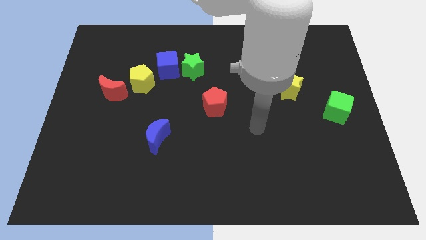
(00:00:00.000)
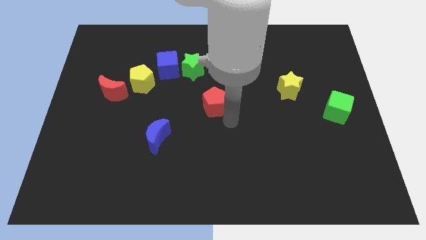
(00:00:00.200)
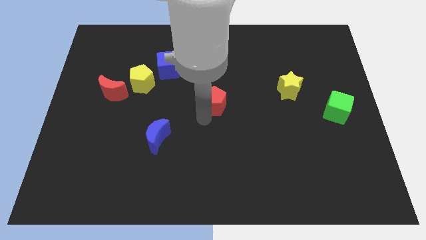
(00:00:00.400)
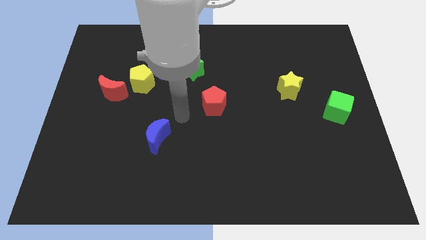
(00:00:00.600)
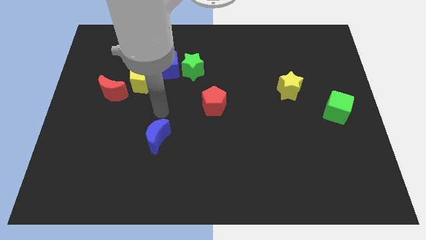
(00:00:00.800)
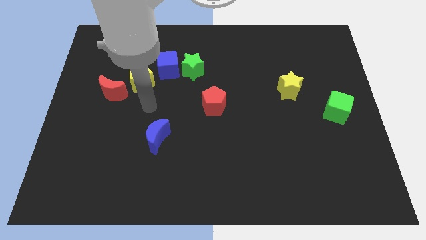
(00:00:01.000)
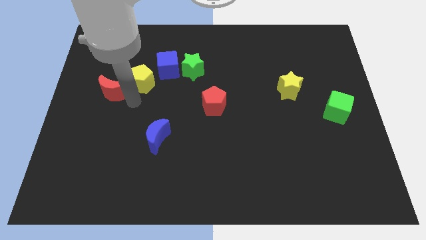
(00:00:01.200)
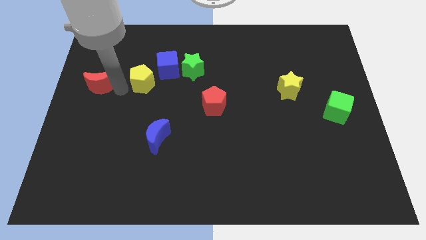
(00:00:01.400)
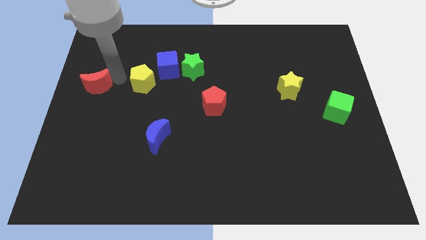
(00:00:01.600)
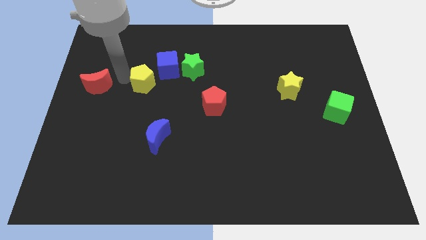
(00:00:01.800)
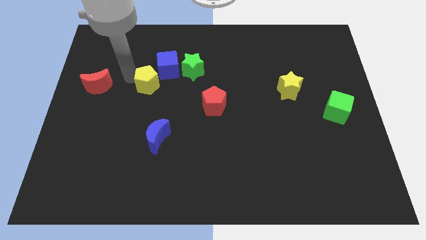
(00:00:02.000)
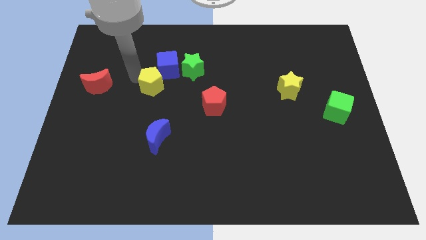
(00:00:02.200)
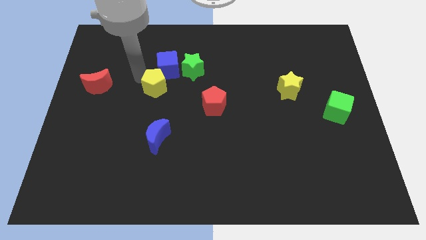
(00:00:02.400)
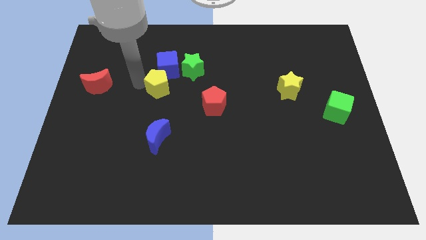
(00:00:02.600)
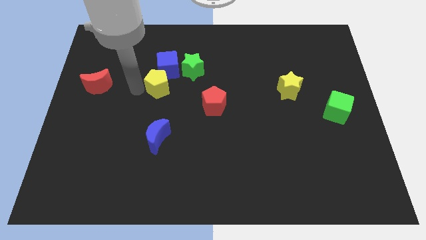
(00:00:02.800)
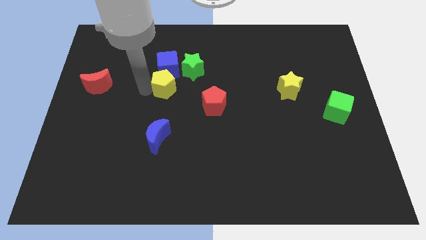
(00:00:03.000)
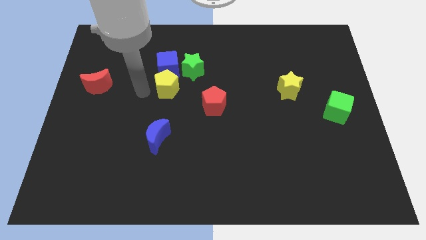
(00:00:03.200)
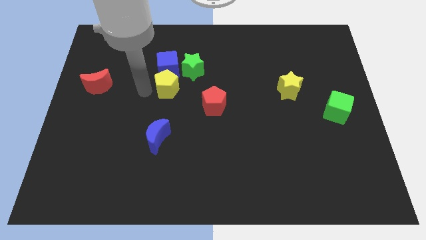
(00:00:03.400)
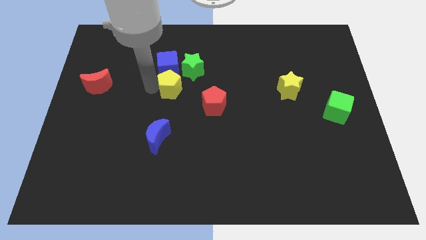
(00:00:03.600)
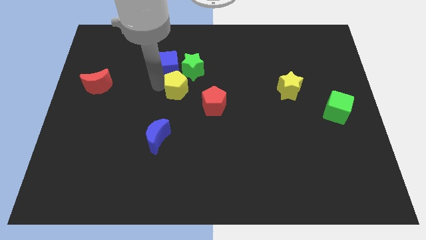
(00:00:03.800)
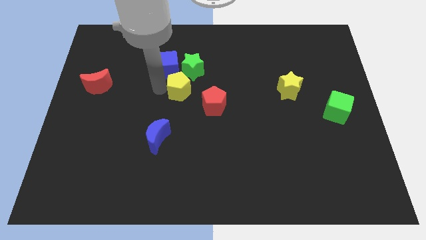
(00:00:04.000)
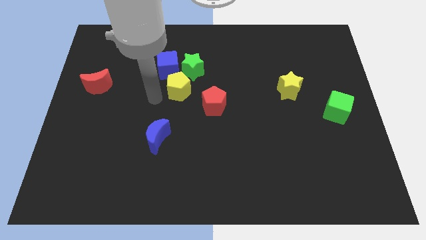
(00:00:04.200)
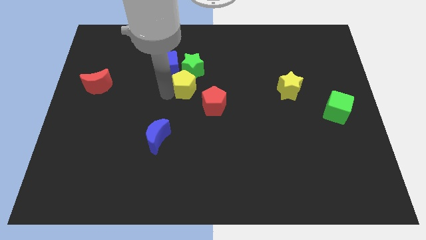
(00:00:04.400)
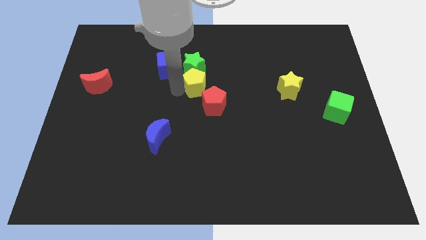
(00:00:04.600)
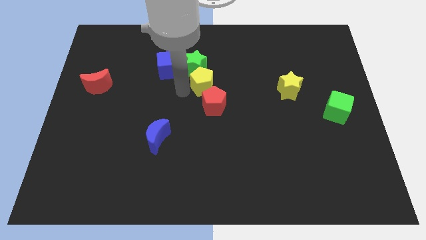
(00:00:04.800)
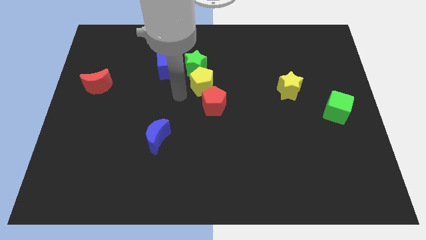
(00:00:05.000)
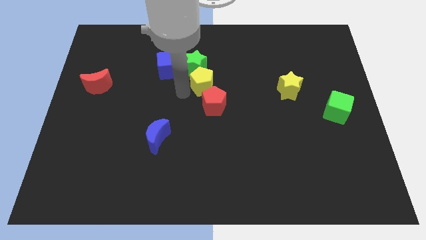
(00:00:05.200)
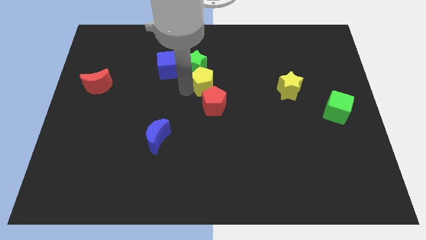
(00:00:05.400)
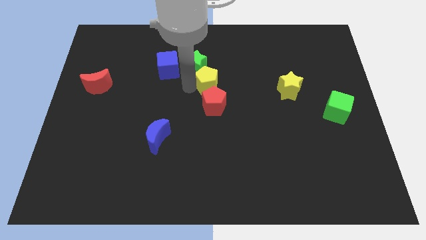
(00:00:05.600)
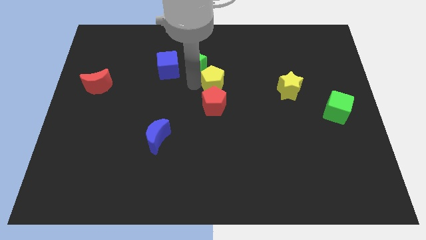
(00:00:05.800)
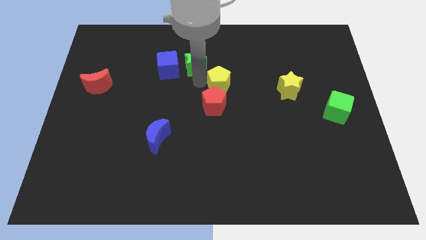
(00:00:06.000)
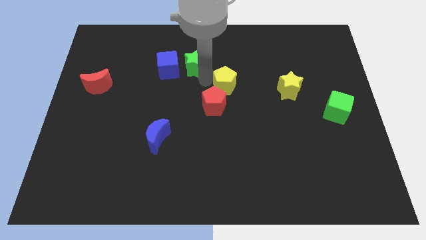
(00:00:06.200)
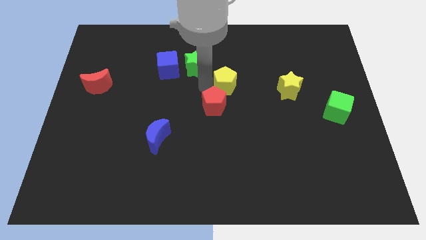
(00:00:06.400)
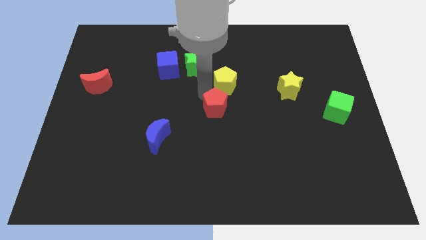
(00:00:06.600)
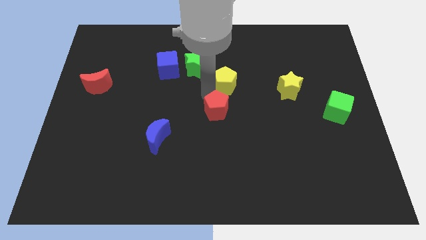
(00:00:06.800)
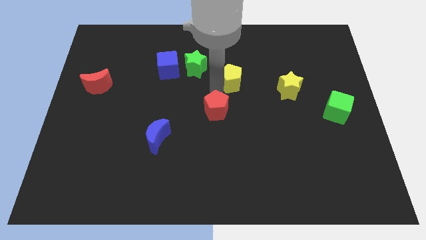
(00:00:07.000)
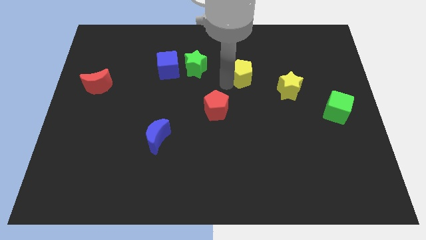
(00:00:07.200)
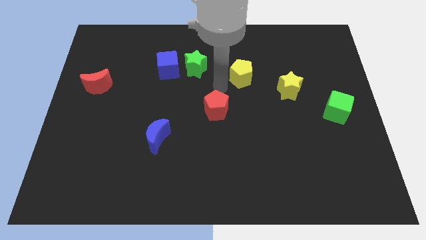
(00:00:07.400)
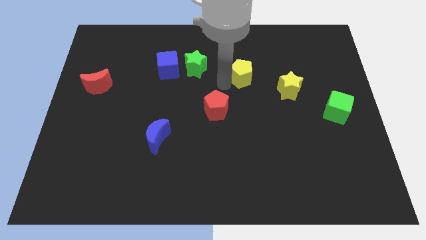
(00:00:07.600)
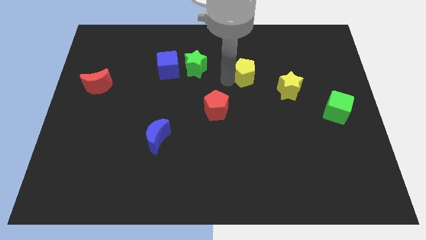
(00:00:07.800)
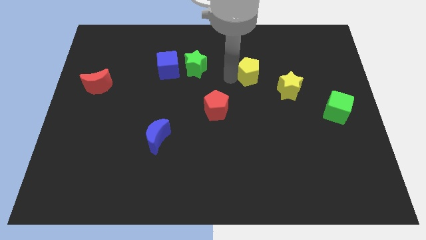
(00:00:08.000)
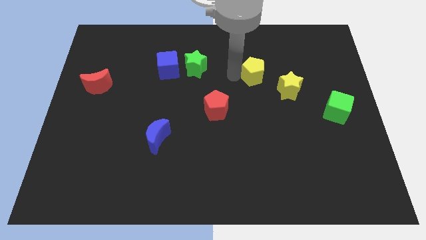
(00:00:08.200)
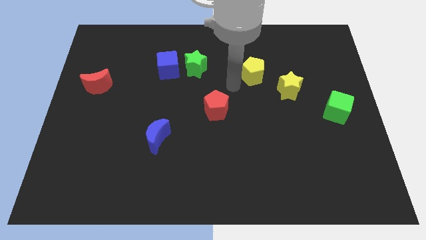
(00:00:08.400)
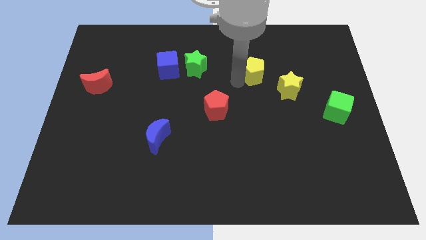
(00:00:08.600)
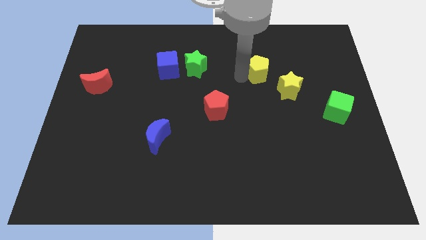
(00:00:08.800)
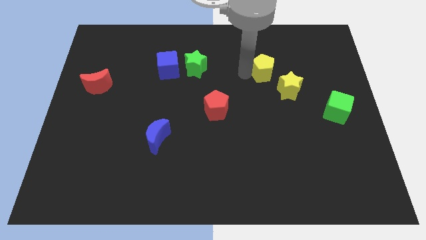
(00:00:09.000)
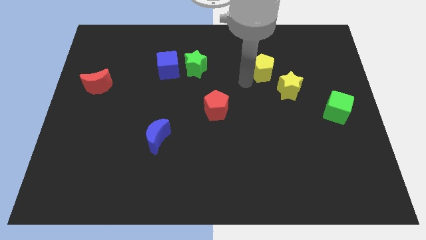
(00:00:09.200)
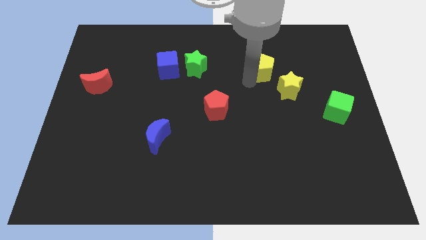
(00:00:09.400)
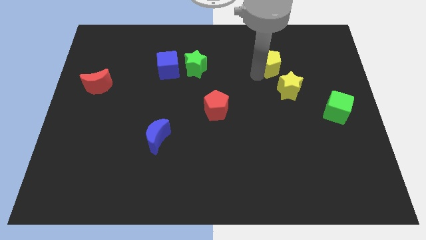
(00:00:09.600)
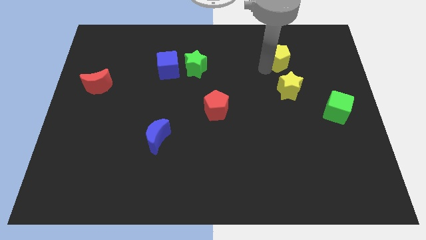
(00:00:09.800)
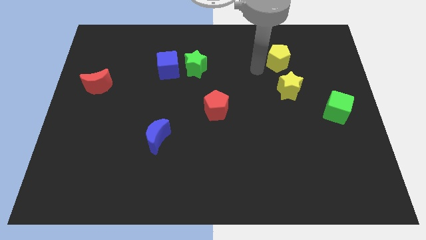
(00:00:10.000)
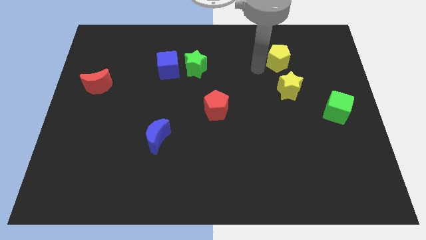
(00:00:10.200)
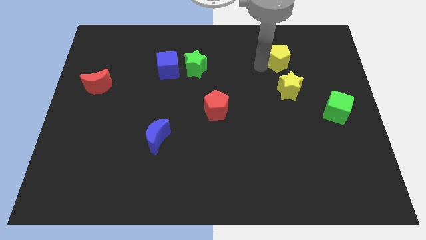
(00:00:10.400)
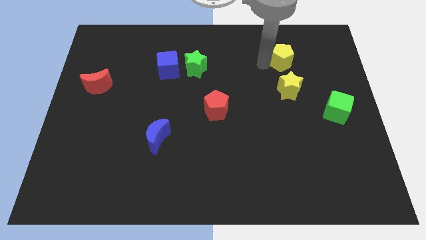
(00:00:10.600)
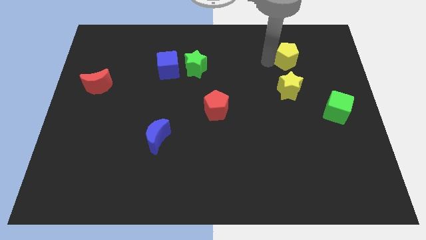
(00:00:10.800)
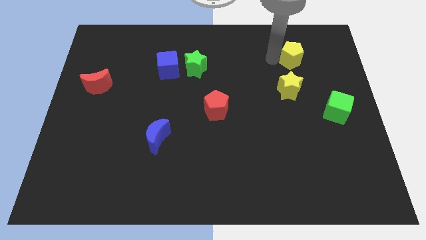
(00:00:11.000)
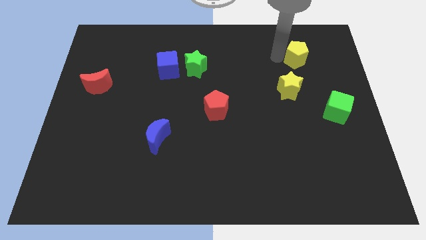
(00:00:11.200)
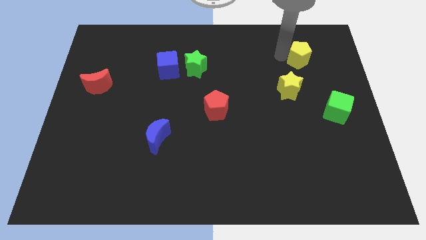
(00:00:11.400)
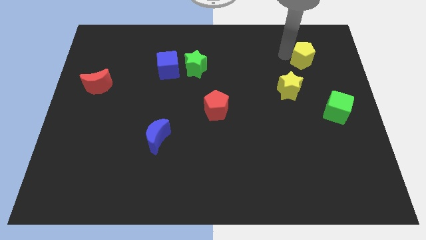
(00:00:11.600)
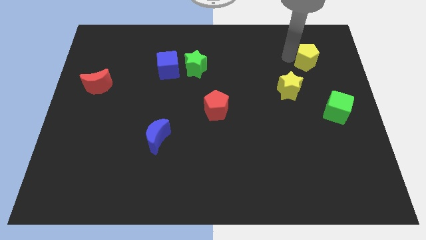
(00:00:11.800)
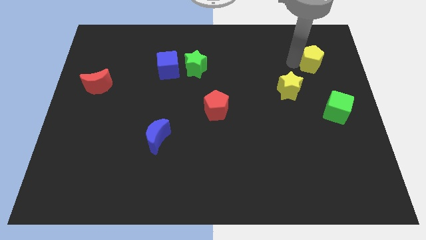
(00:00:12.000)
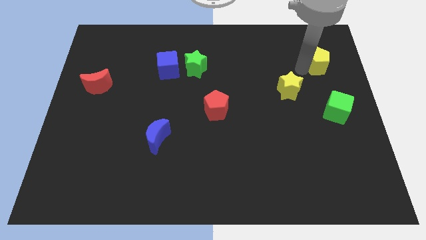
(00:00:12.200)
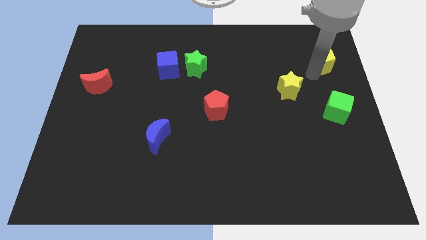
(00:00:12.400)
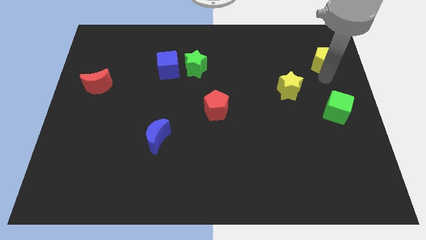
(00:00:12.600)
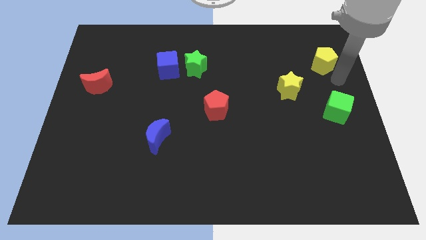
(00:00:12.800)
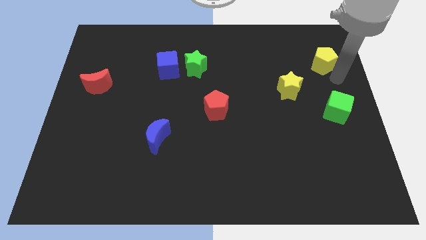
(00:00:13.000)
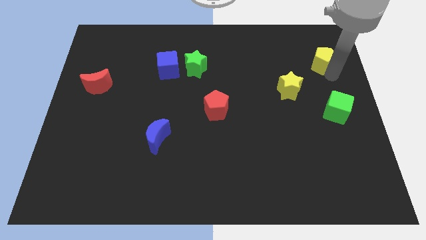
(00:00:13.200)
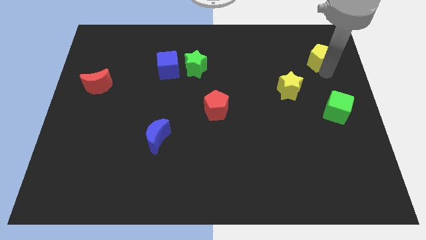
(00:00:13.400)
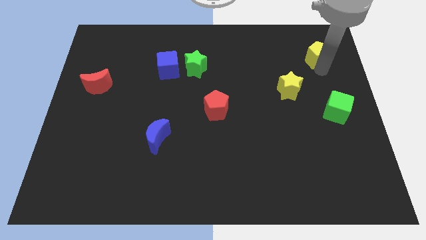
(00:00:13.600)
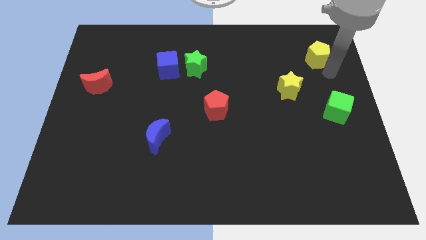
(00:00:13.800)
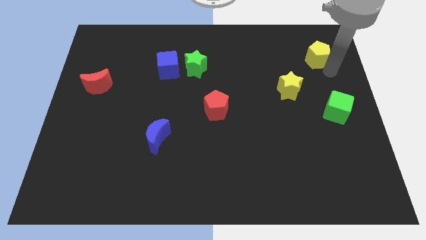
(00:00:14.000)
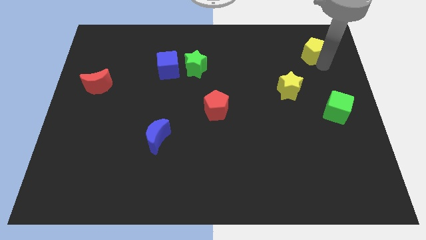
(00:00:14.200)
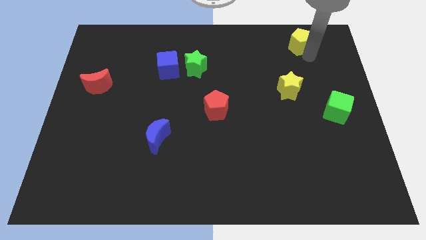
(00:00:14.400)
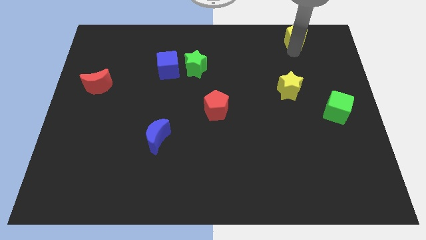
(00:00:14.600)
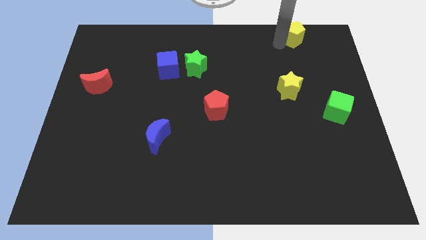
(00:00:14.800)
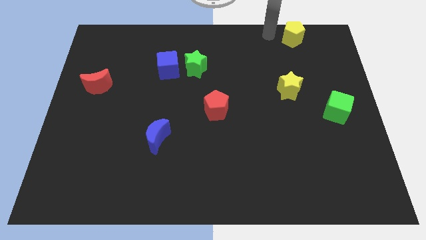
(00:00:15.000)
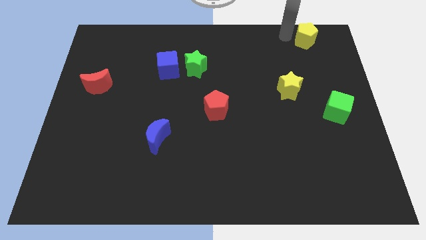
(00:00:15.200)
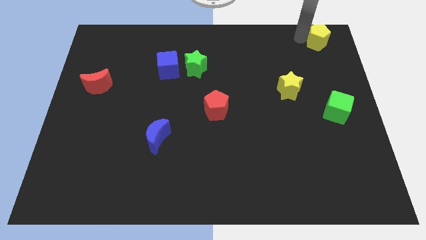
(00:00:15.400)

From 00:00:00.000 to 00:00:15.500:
slide the yellow pentagon to the top right corner
